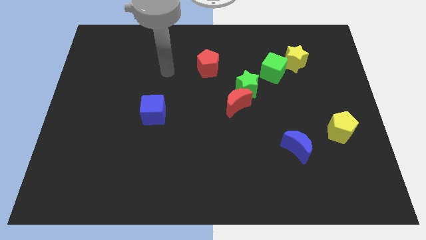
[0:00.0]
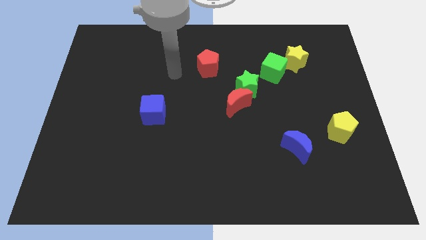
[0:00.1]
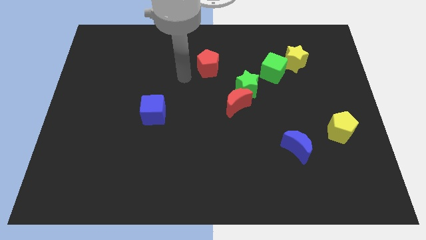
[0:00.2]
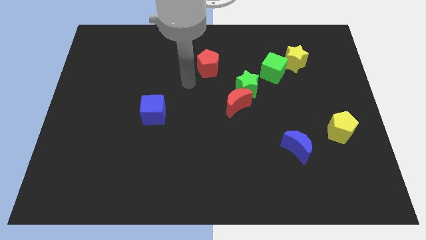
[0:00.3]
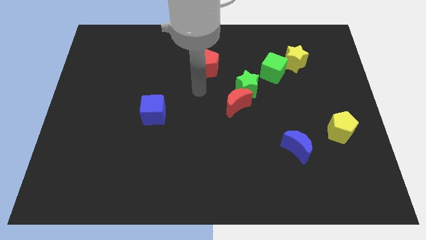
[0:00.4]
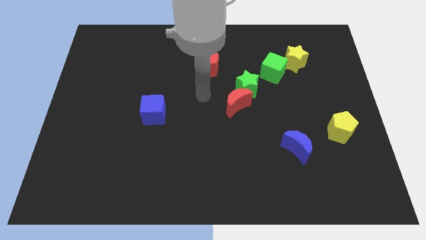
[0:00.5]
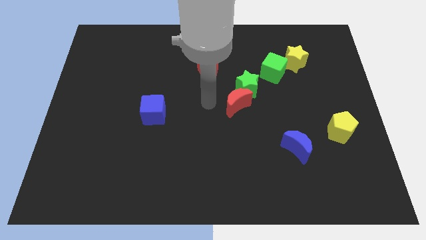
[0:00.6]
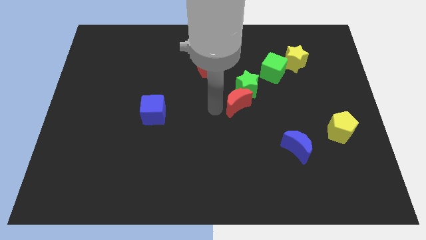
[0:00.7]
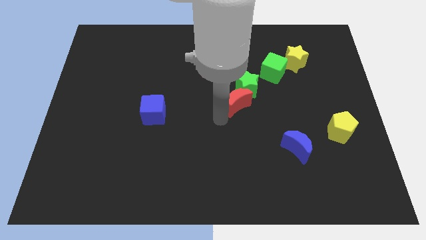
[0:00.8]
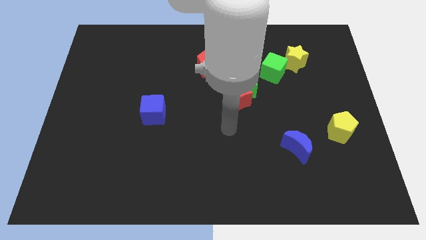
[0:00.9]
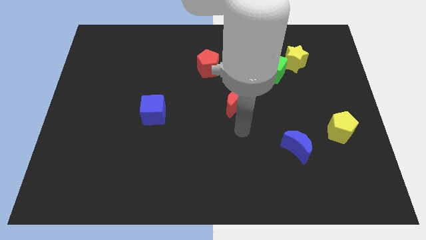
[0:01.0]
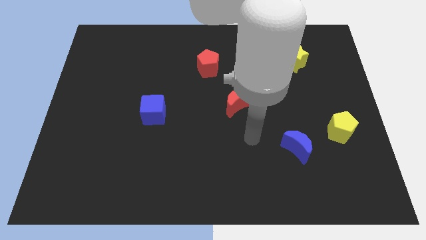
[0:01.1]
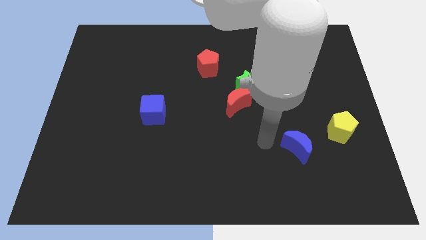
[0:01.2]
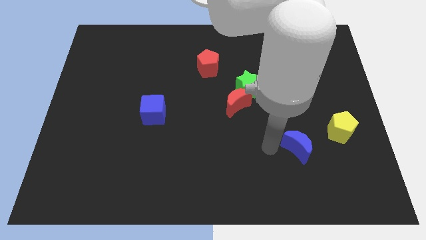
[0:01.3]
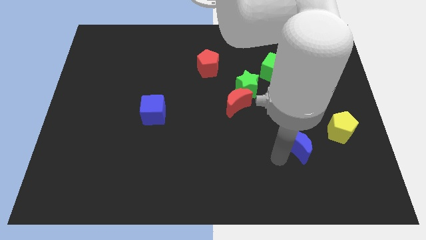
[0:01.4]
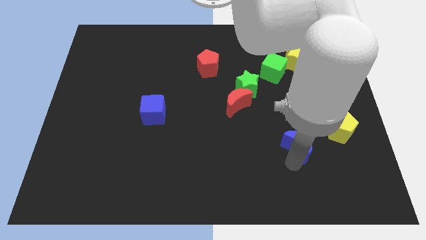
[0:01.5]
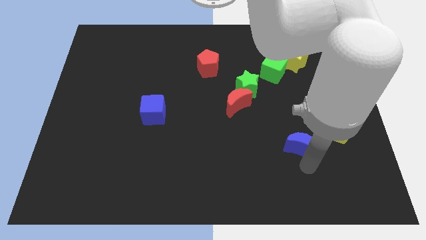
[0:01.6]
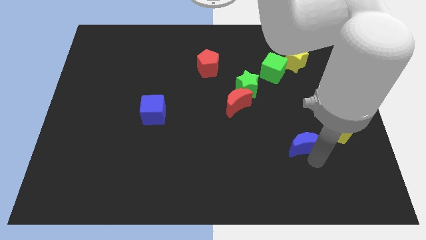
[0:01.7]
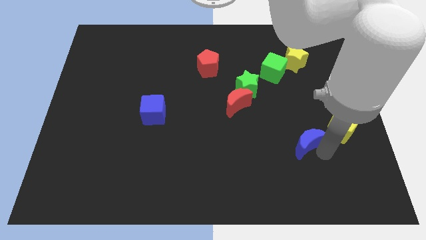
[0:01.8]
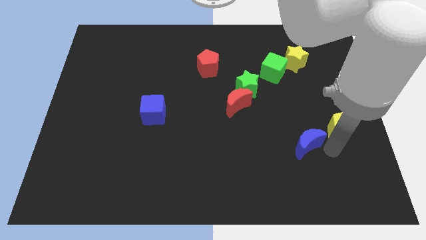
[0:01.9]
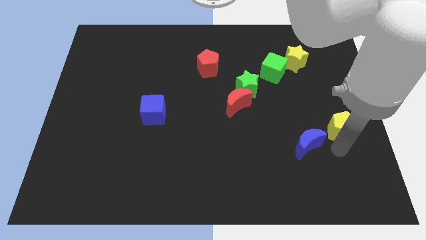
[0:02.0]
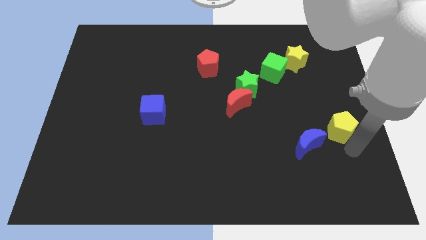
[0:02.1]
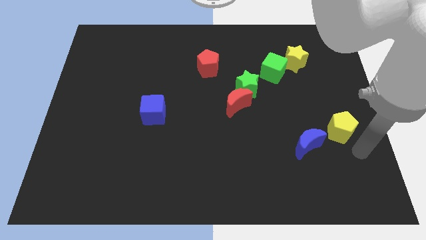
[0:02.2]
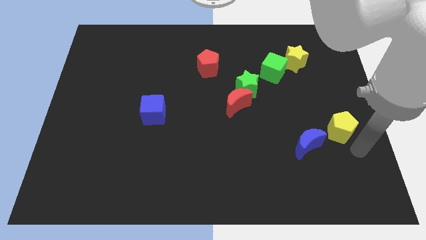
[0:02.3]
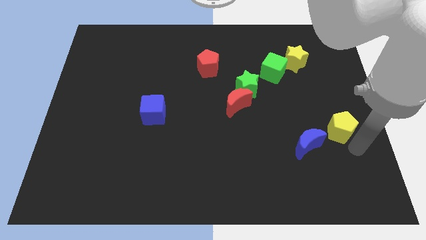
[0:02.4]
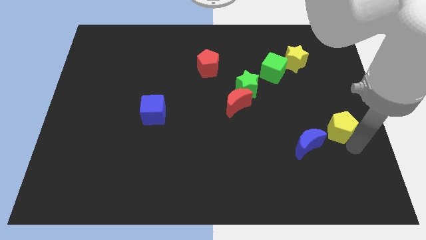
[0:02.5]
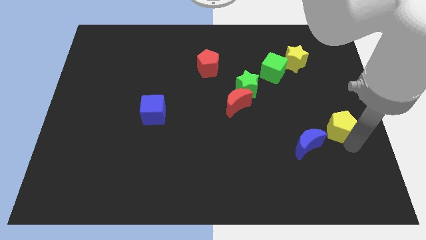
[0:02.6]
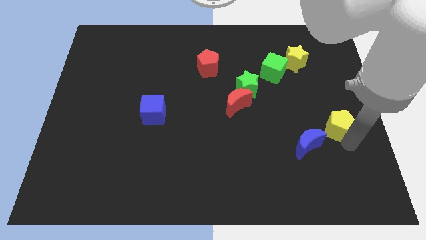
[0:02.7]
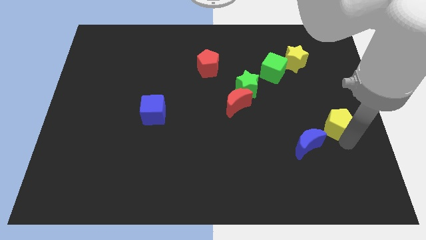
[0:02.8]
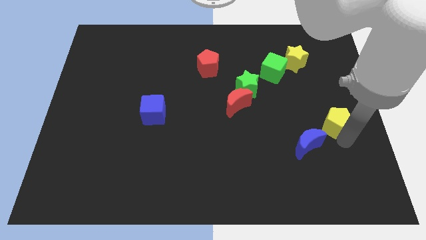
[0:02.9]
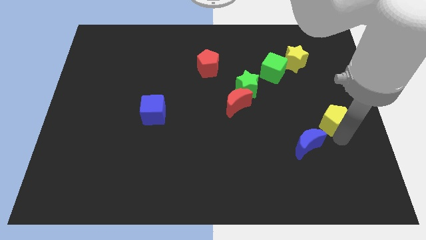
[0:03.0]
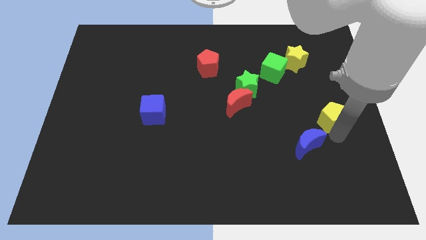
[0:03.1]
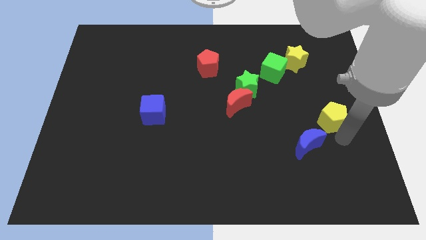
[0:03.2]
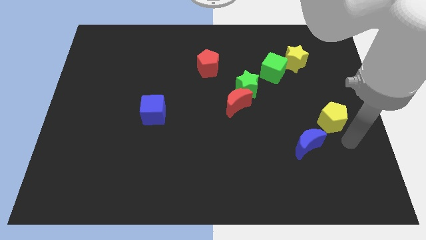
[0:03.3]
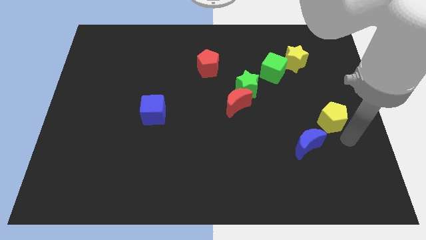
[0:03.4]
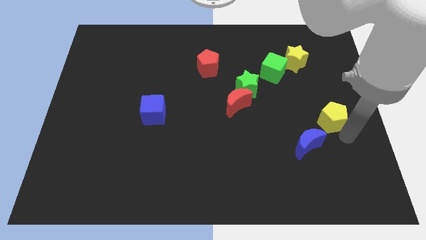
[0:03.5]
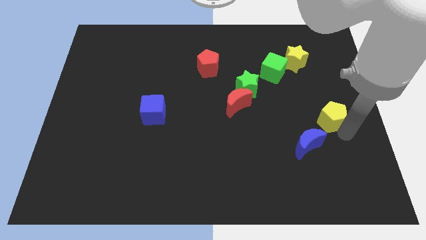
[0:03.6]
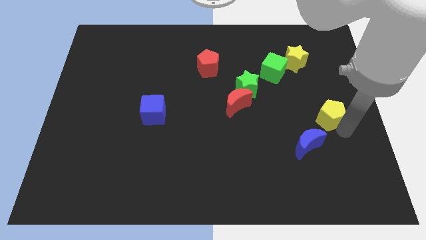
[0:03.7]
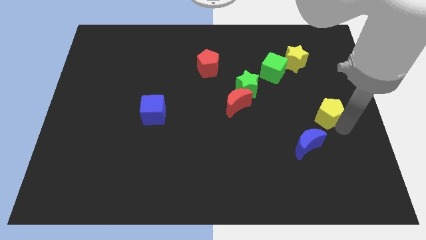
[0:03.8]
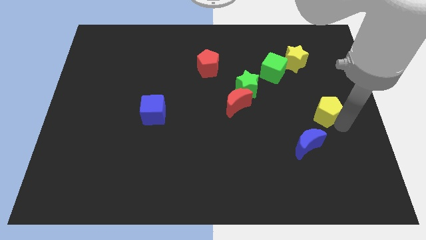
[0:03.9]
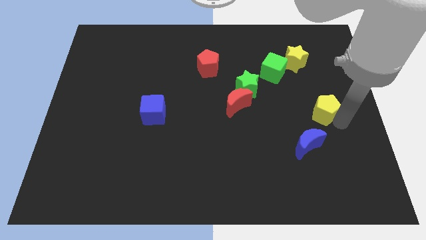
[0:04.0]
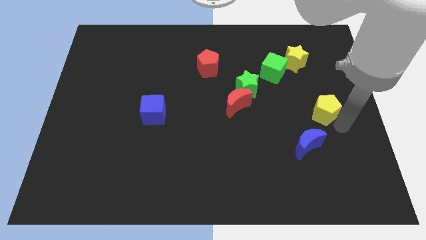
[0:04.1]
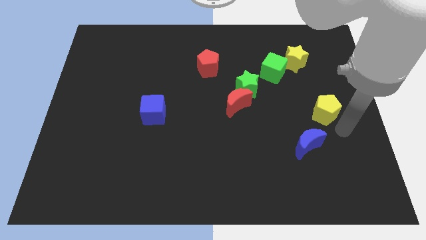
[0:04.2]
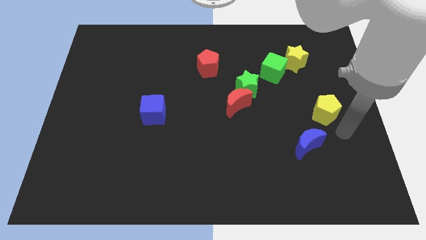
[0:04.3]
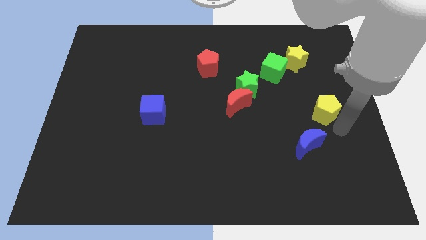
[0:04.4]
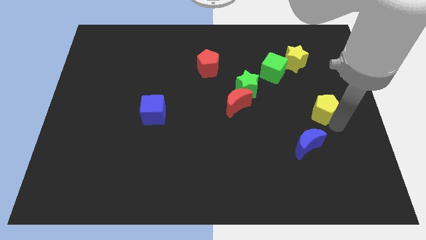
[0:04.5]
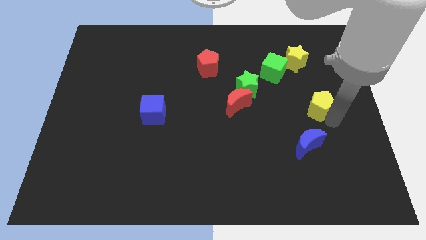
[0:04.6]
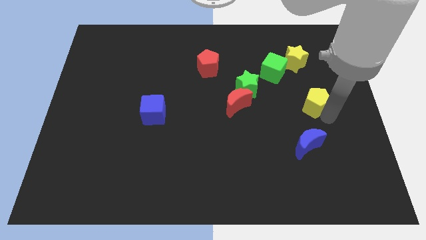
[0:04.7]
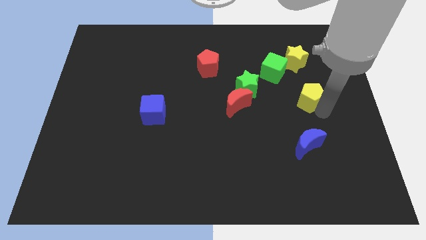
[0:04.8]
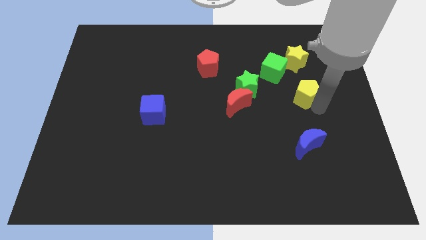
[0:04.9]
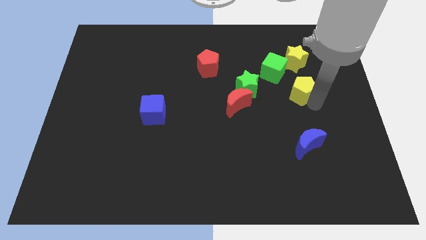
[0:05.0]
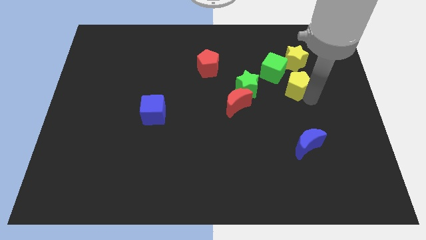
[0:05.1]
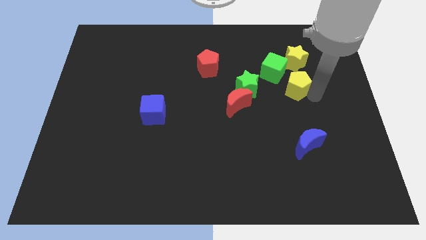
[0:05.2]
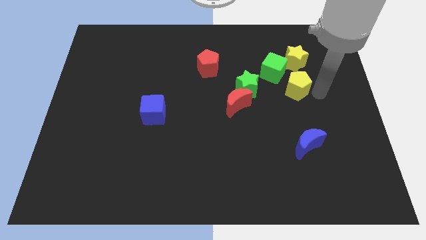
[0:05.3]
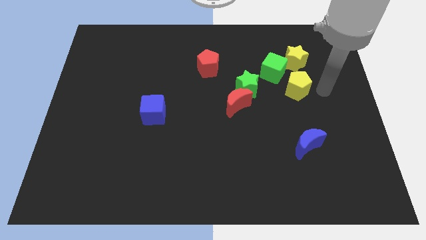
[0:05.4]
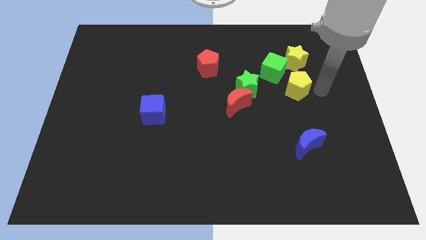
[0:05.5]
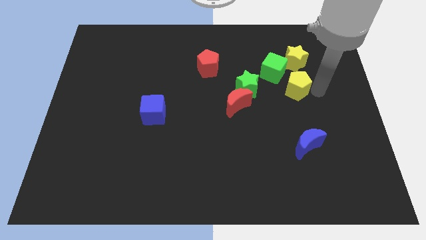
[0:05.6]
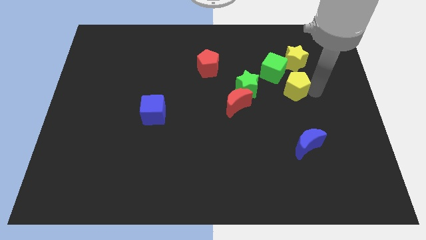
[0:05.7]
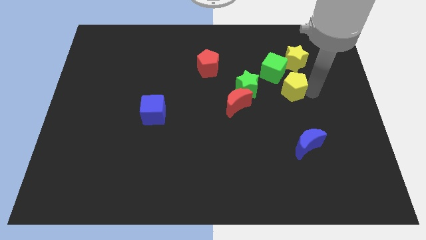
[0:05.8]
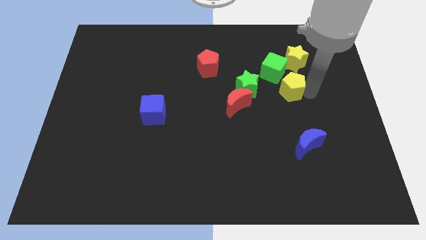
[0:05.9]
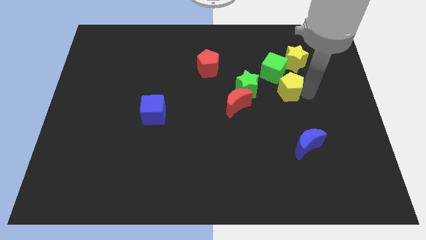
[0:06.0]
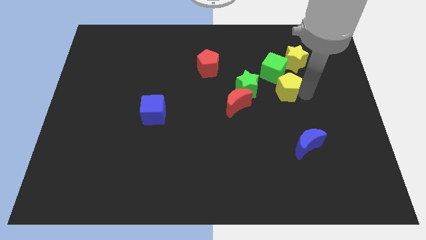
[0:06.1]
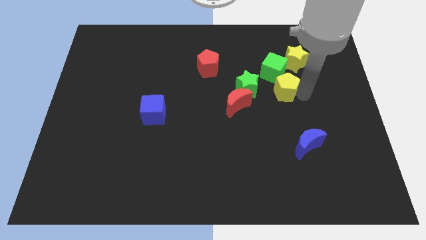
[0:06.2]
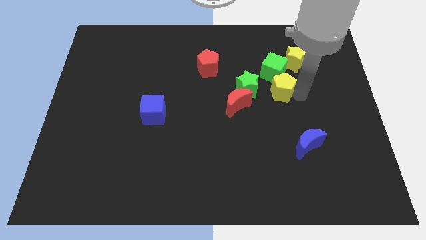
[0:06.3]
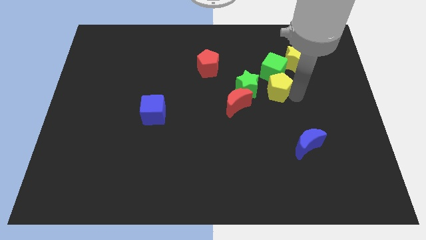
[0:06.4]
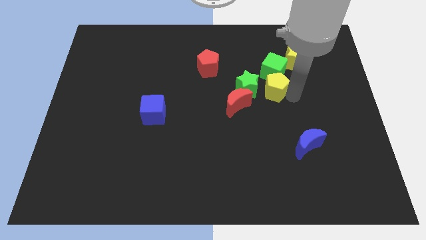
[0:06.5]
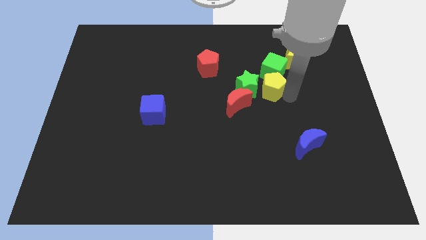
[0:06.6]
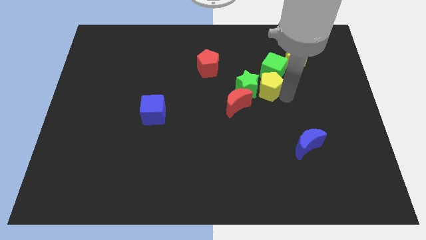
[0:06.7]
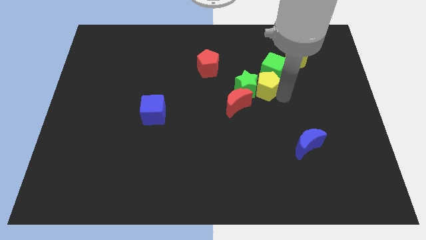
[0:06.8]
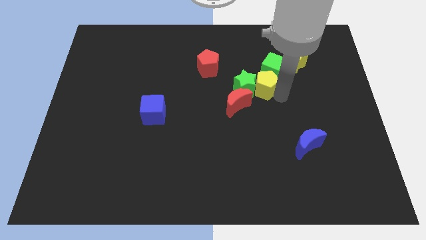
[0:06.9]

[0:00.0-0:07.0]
push the yellow pentagon up and then left

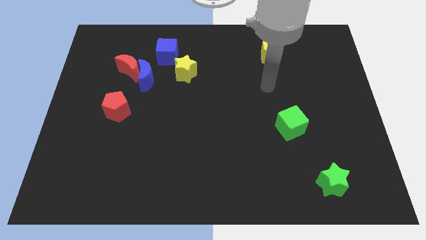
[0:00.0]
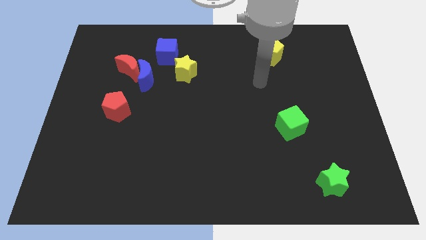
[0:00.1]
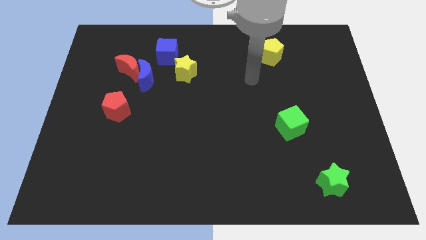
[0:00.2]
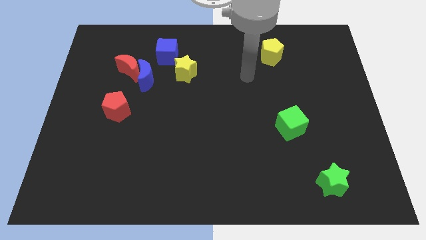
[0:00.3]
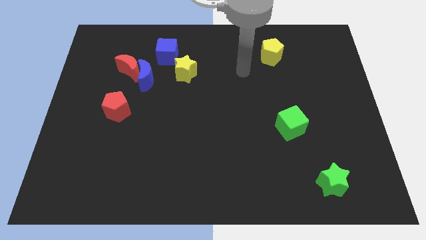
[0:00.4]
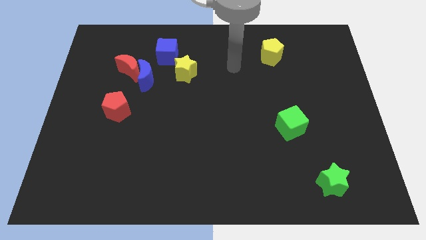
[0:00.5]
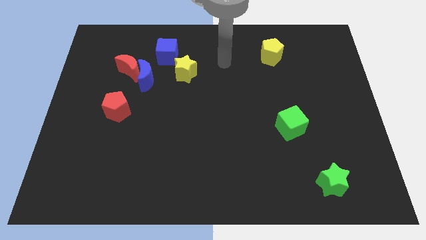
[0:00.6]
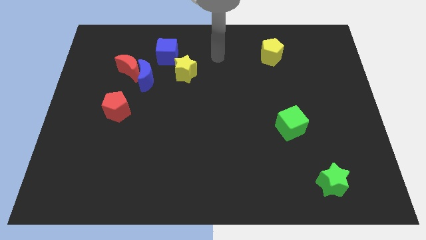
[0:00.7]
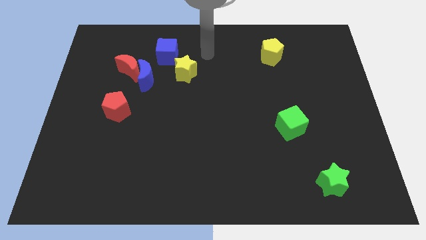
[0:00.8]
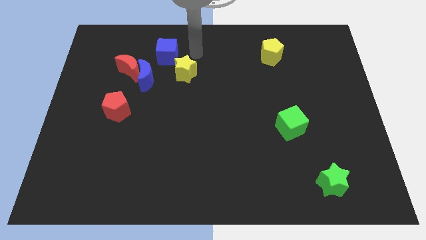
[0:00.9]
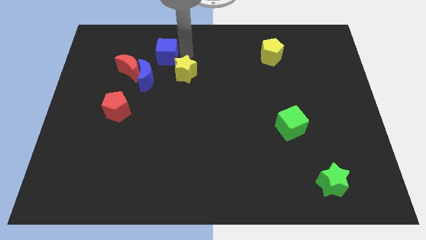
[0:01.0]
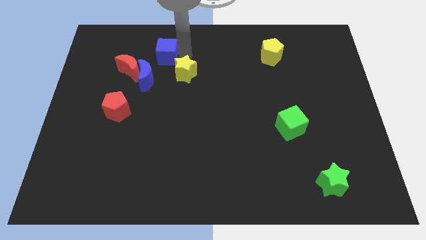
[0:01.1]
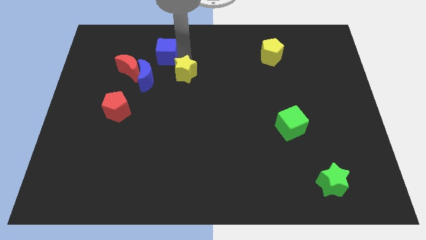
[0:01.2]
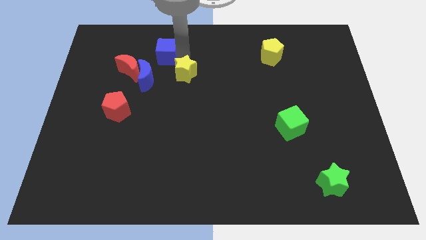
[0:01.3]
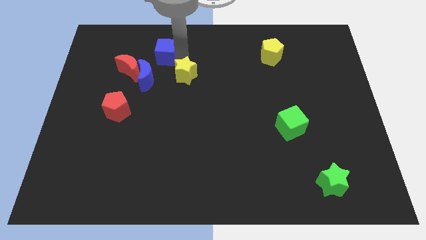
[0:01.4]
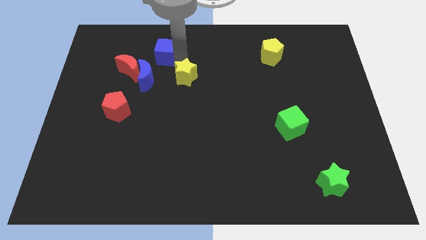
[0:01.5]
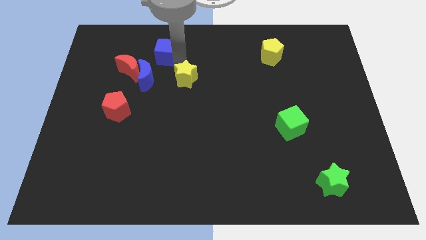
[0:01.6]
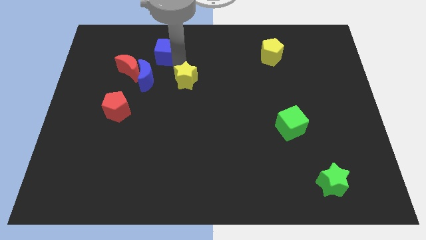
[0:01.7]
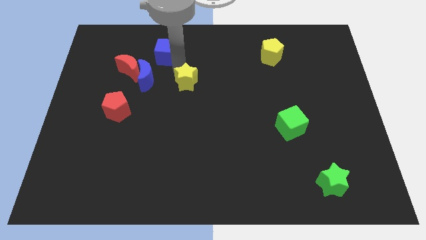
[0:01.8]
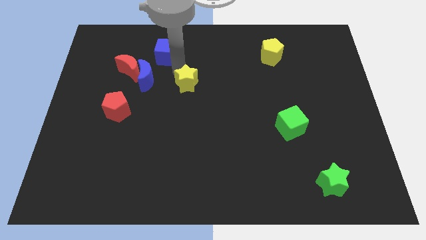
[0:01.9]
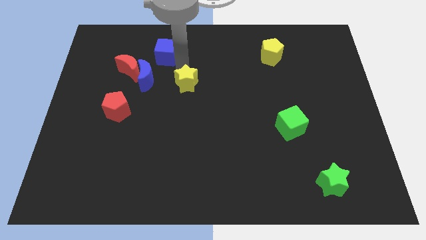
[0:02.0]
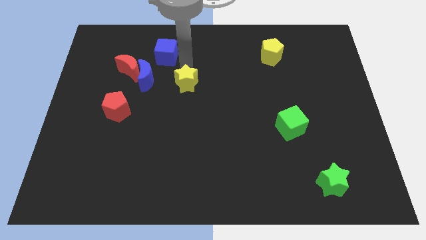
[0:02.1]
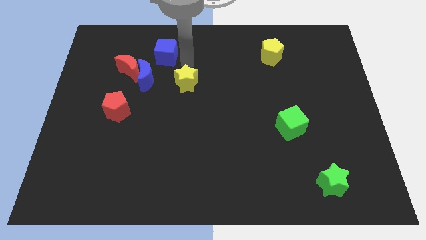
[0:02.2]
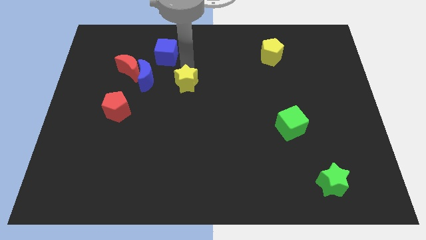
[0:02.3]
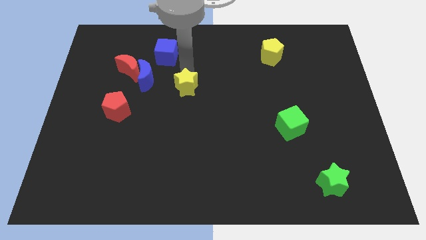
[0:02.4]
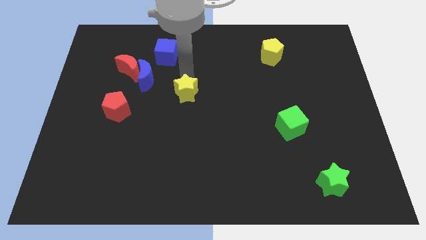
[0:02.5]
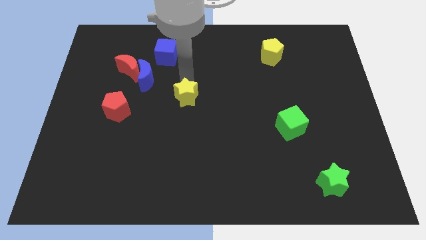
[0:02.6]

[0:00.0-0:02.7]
slightly move the yellow star downwards
